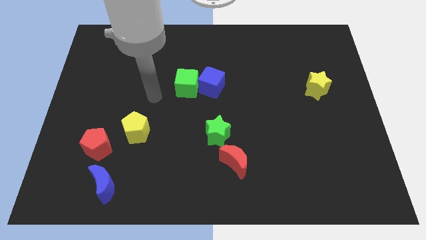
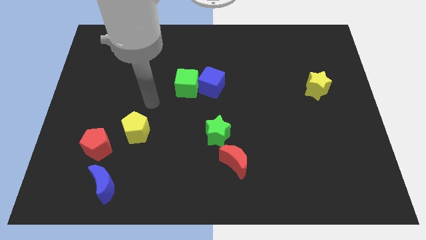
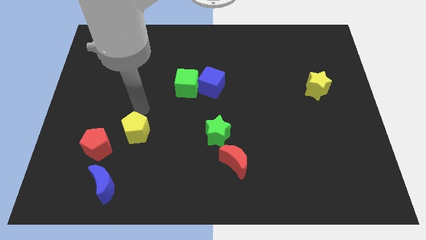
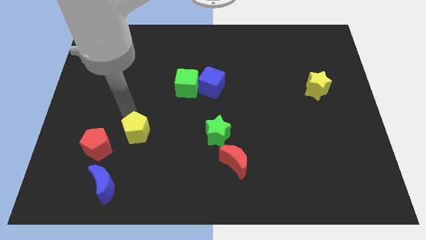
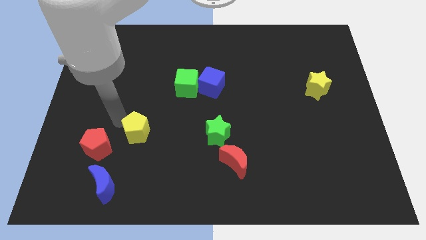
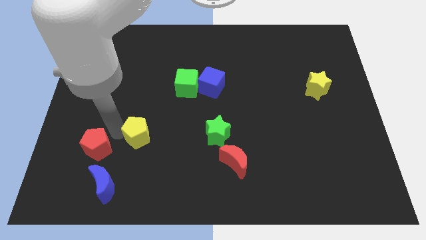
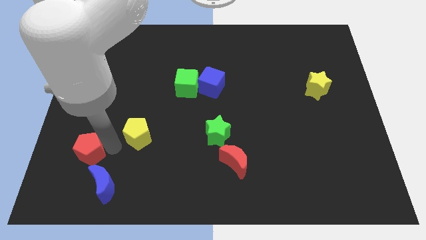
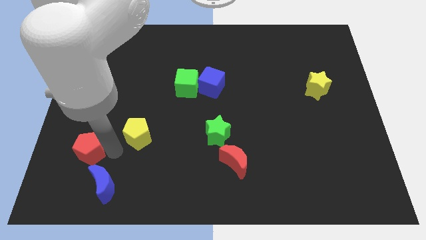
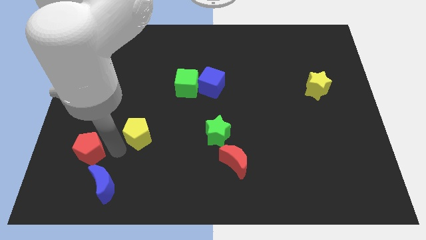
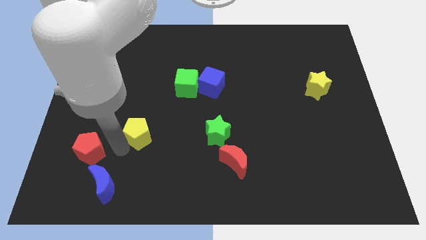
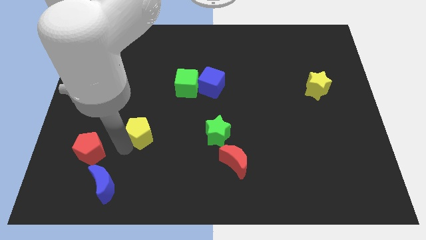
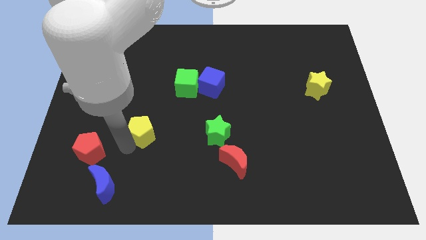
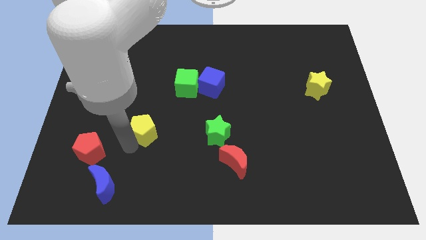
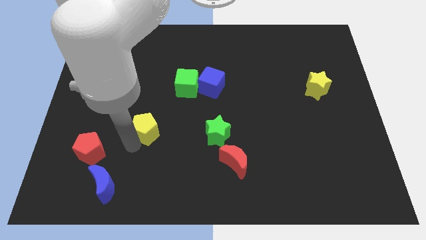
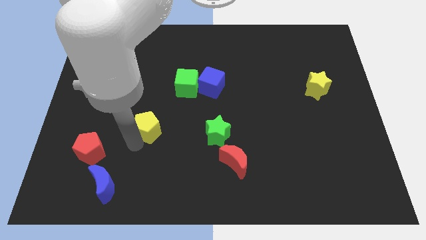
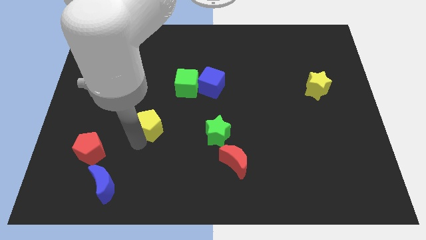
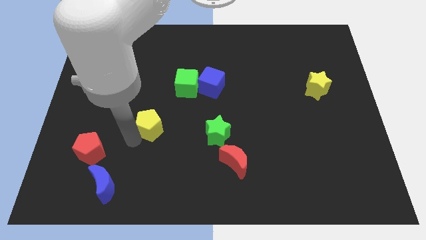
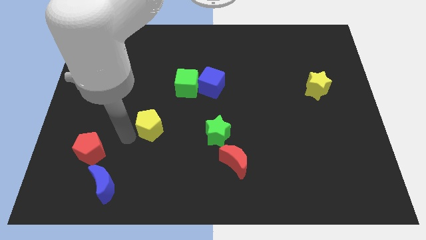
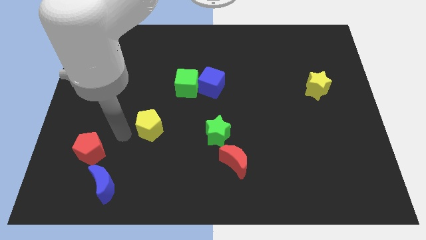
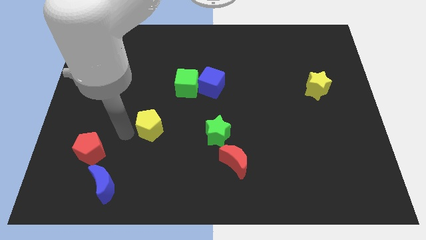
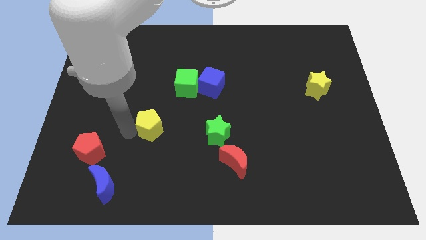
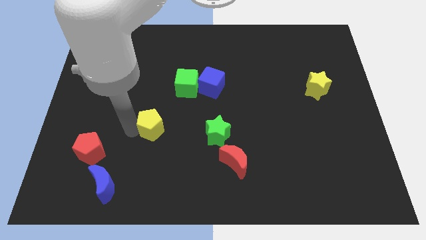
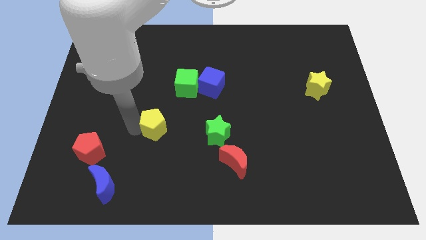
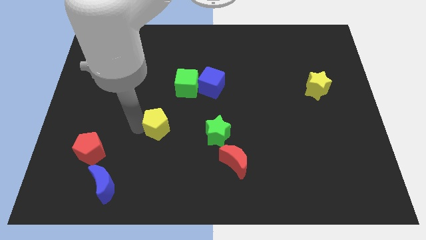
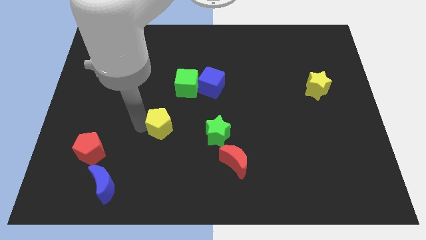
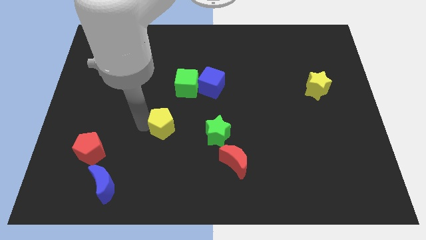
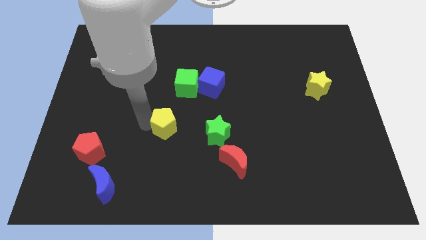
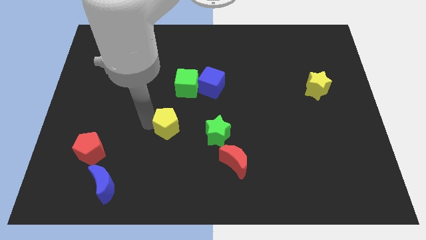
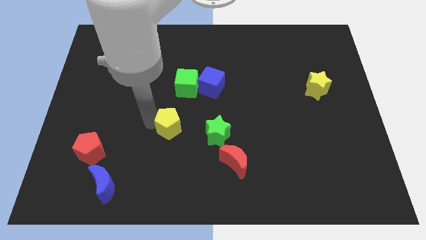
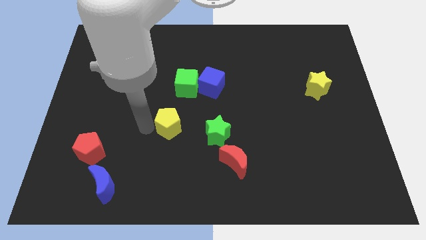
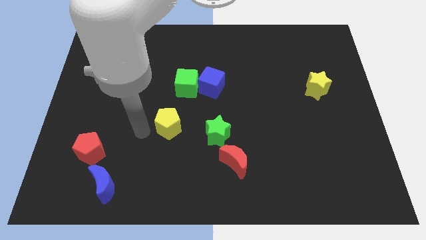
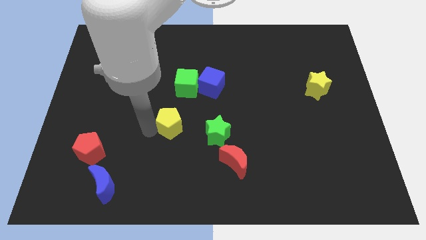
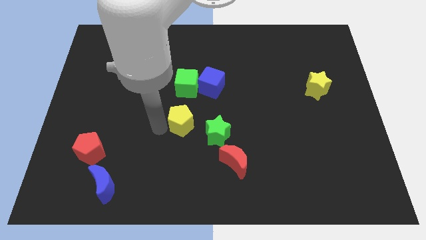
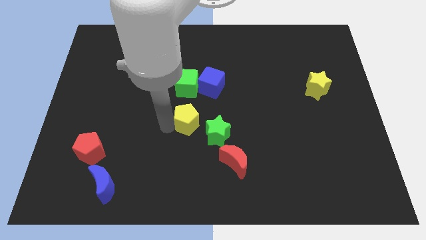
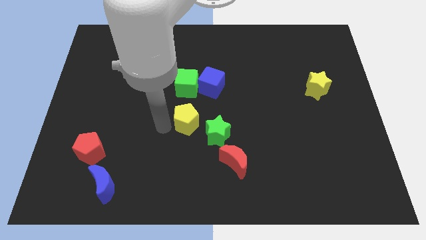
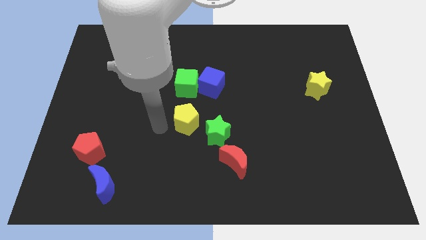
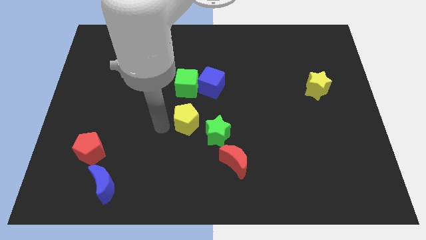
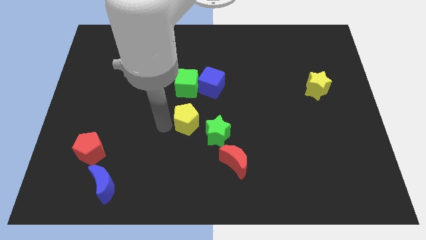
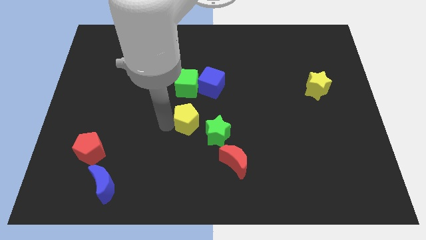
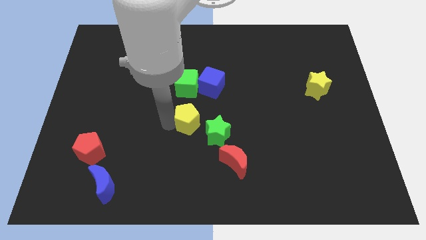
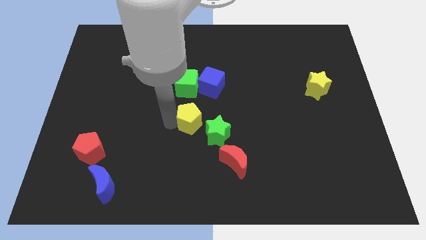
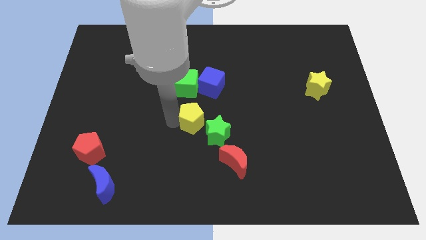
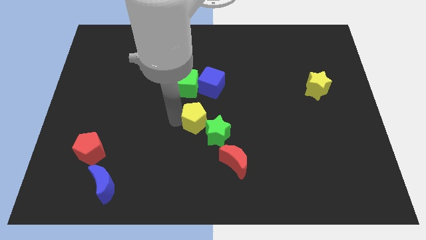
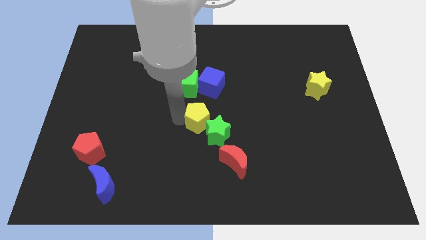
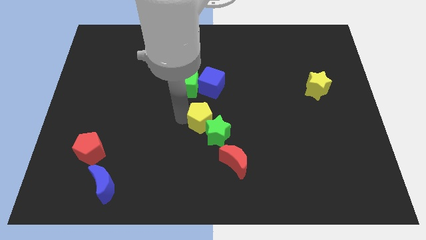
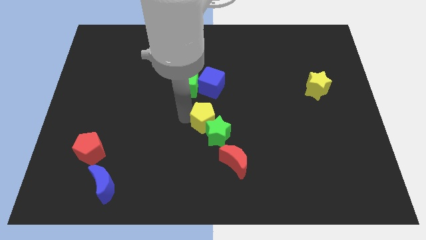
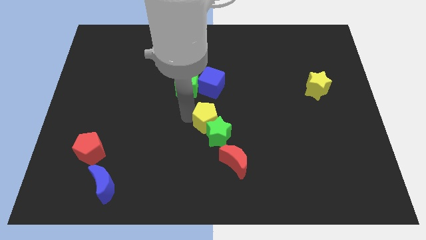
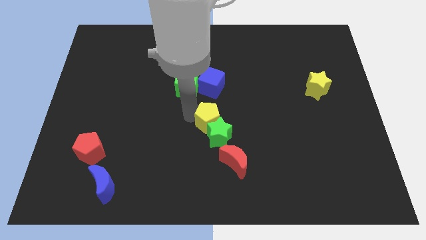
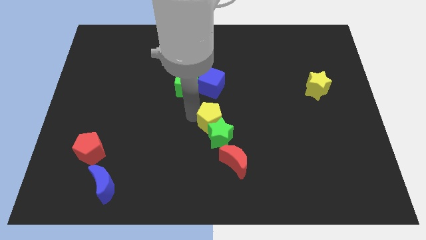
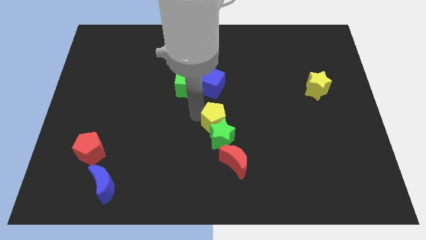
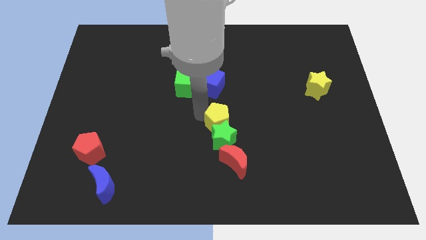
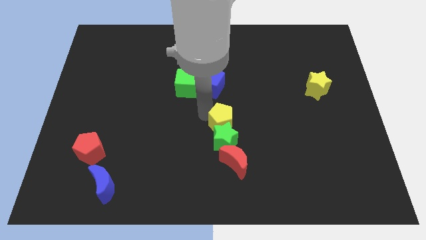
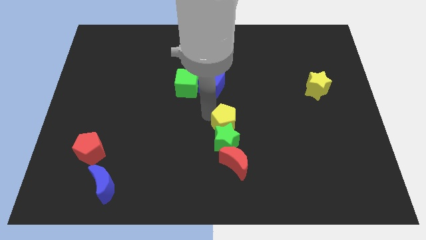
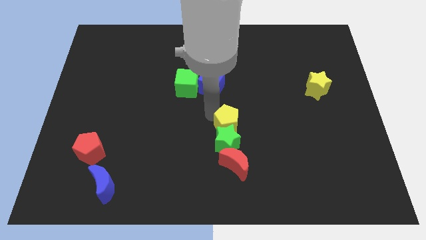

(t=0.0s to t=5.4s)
slide the yellow pentagon to the right

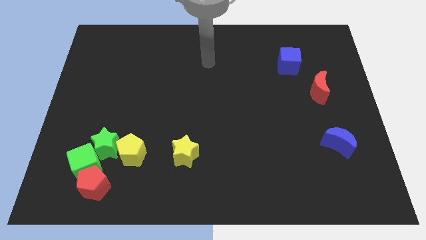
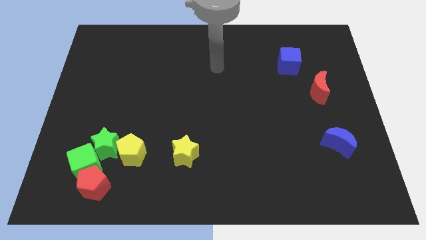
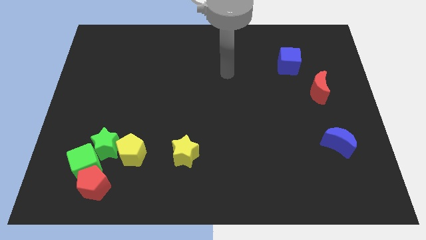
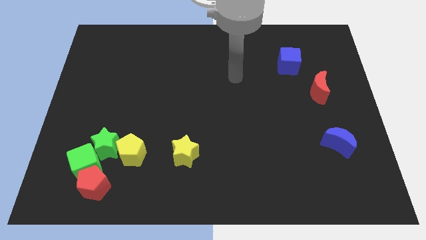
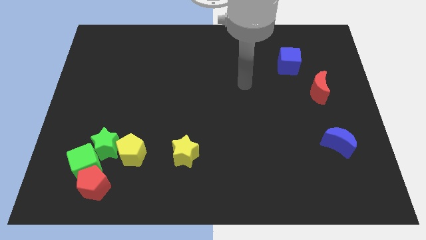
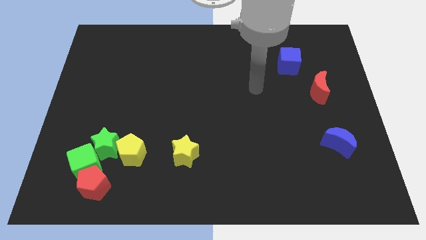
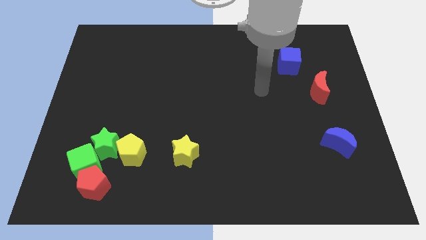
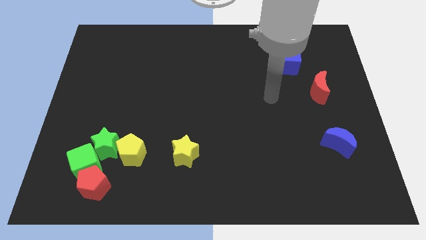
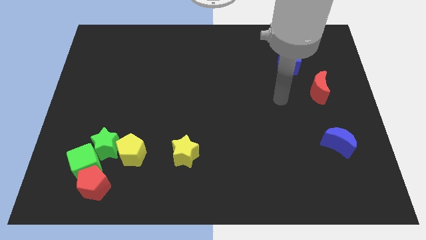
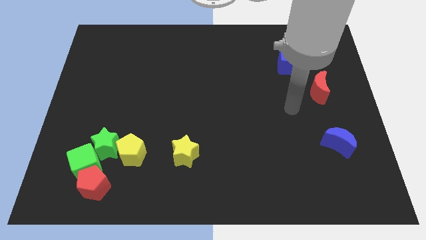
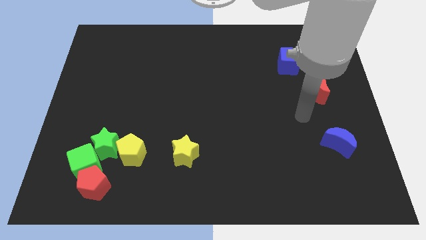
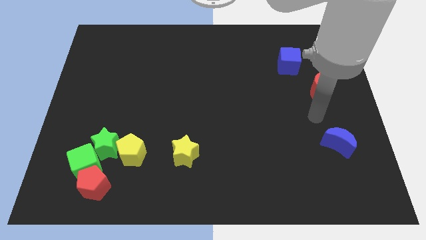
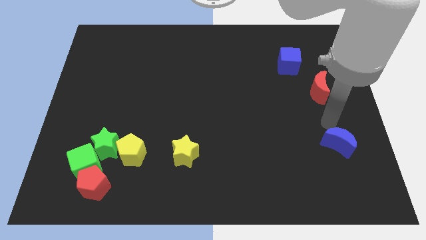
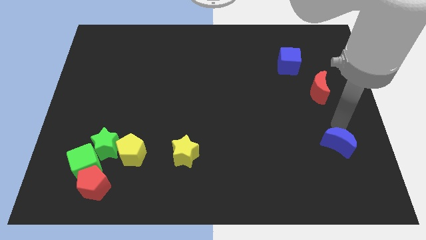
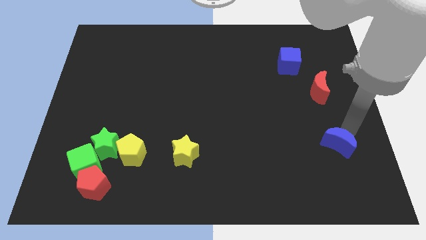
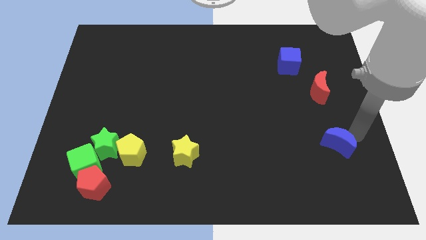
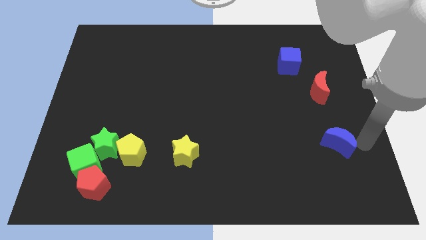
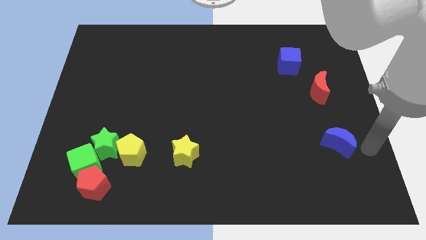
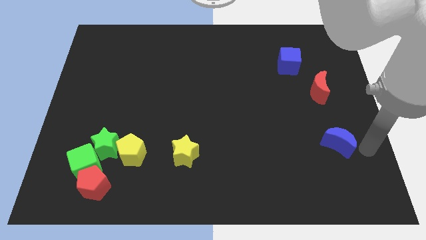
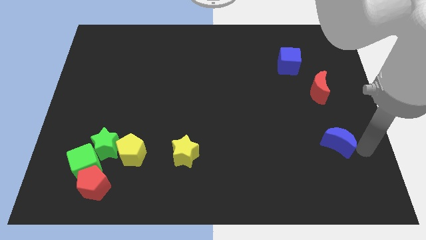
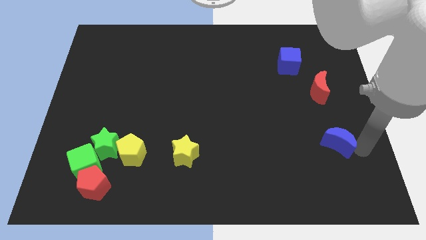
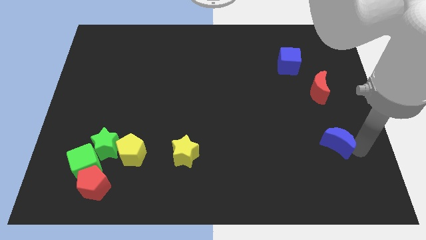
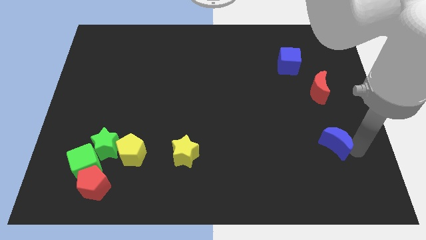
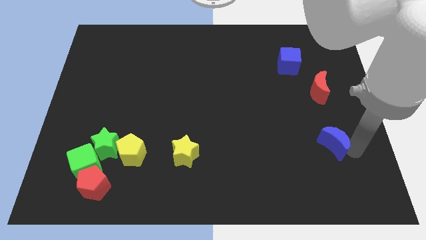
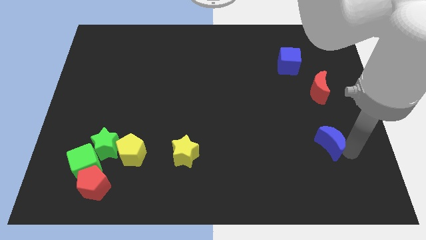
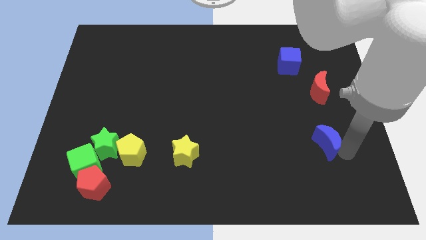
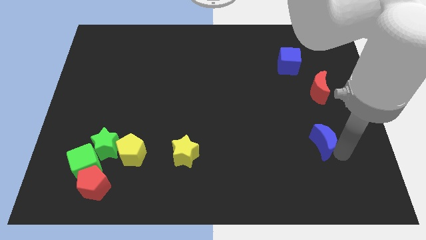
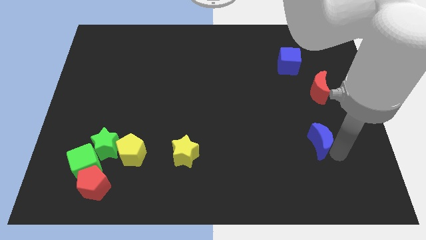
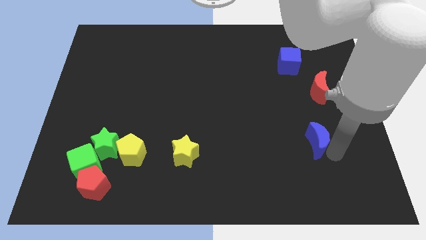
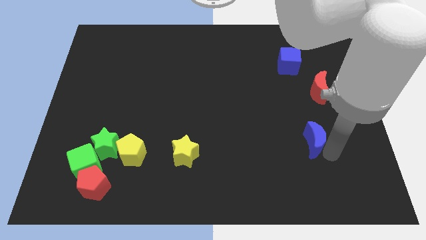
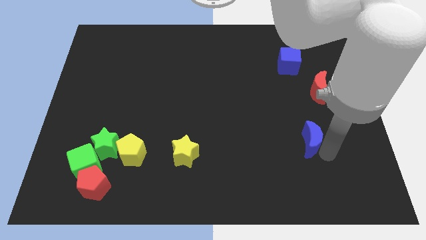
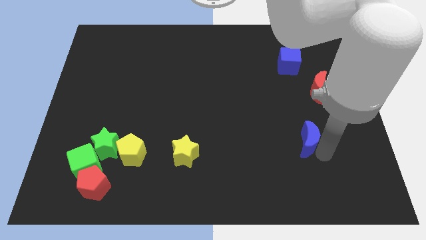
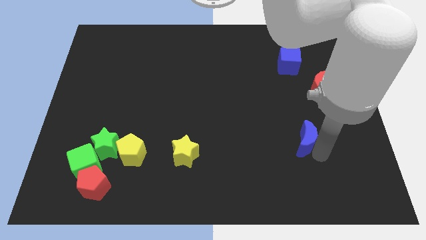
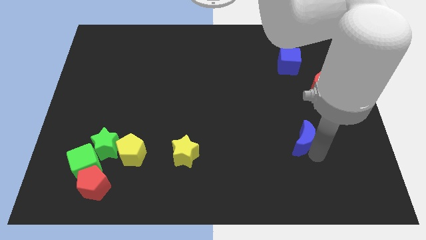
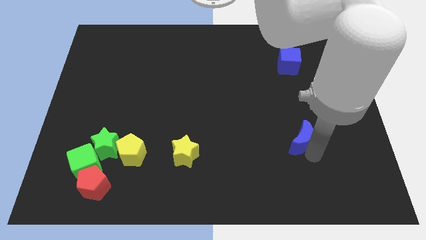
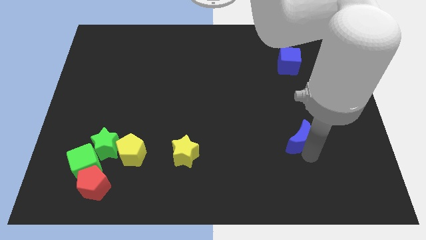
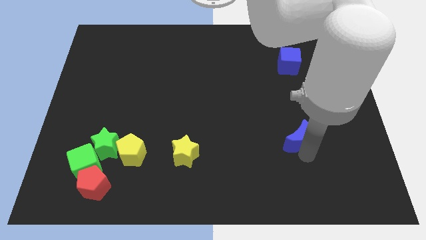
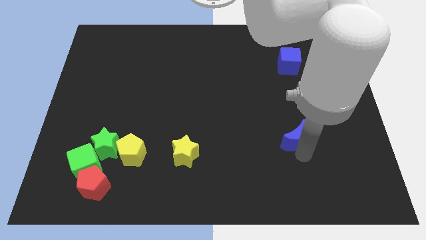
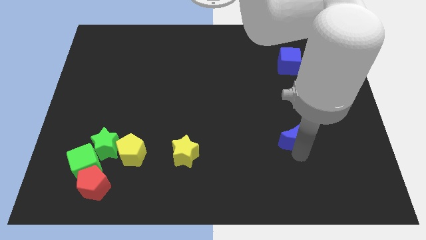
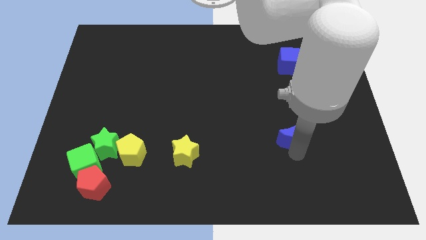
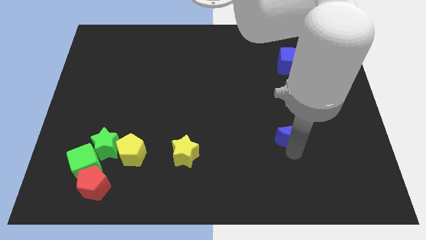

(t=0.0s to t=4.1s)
push the blue moon diagonally upwards and to the left a bit
